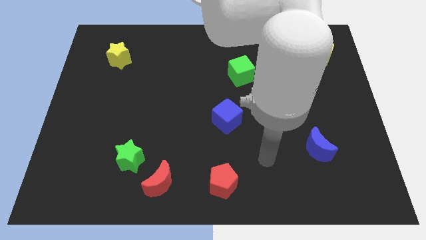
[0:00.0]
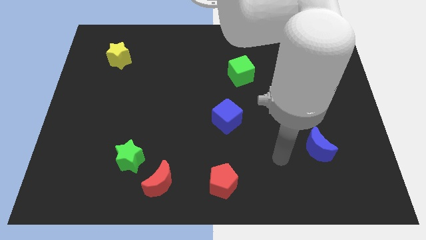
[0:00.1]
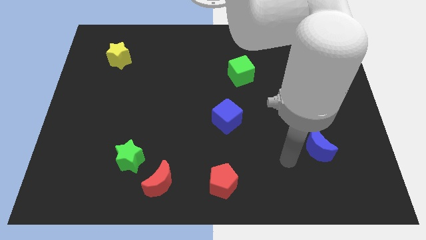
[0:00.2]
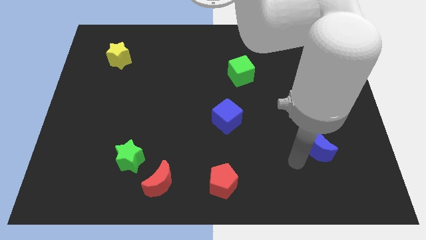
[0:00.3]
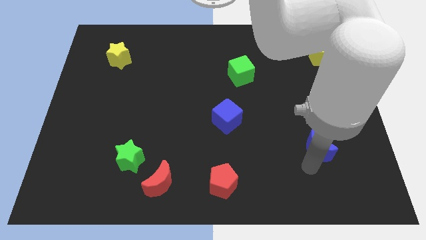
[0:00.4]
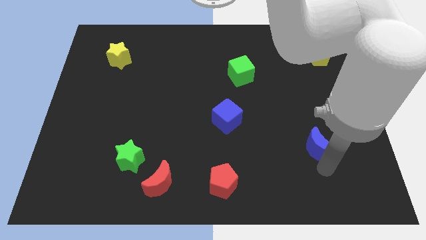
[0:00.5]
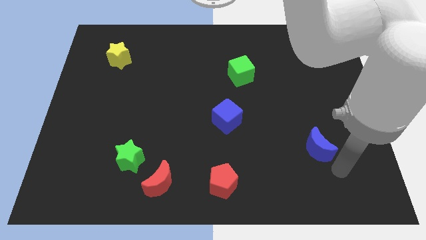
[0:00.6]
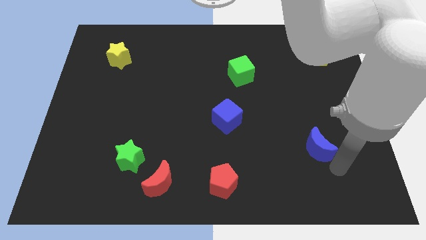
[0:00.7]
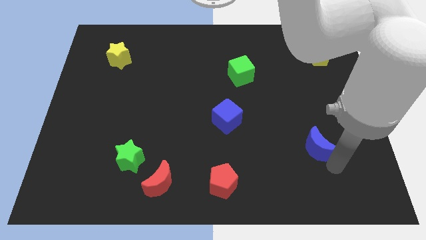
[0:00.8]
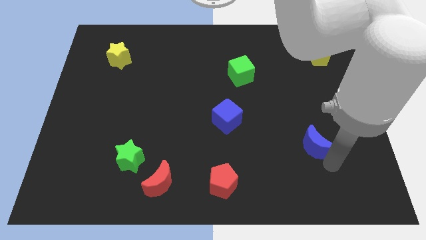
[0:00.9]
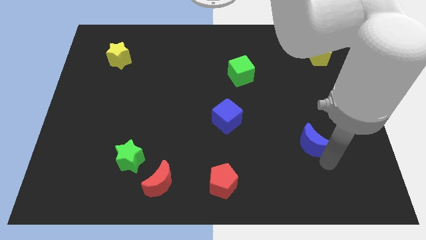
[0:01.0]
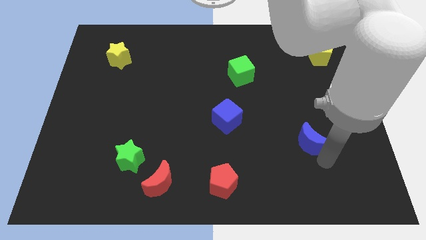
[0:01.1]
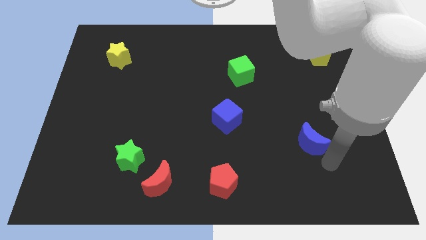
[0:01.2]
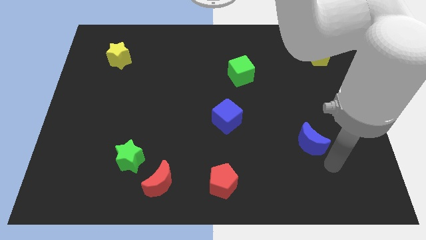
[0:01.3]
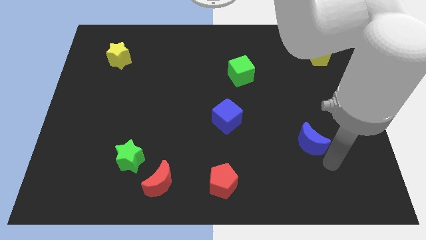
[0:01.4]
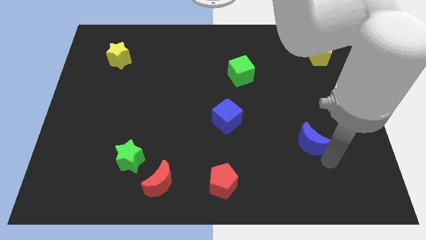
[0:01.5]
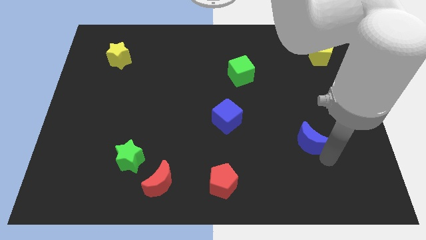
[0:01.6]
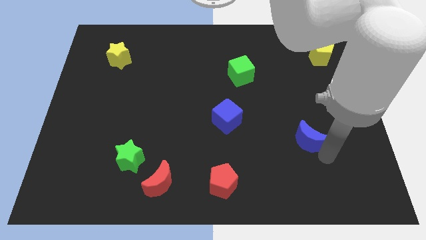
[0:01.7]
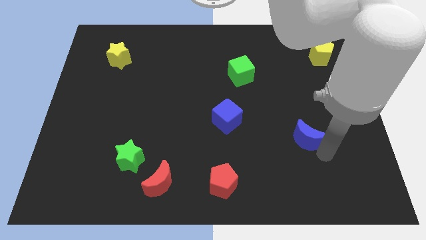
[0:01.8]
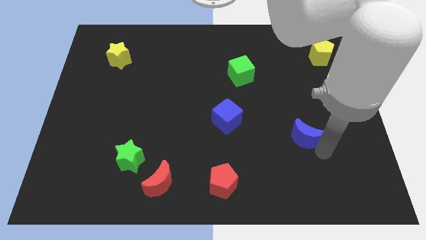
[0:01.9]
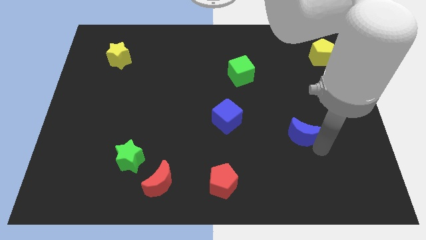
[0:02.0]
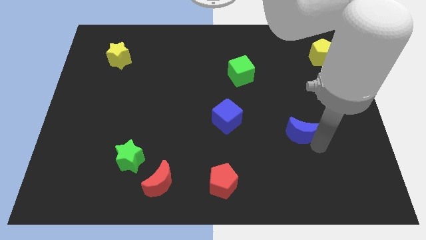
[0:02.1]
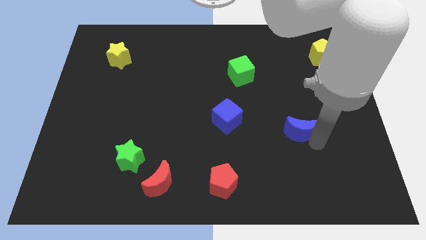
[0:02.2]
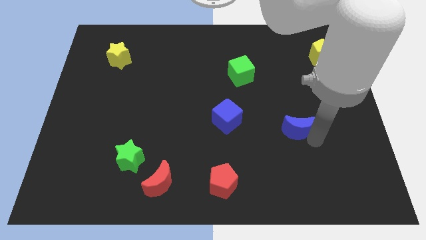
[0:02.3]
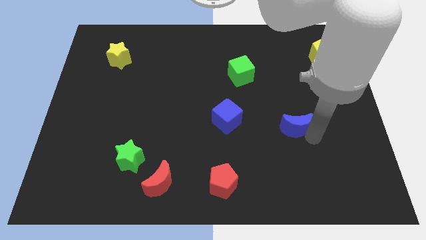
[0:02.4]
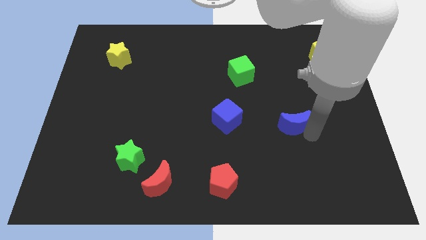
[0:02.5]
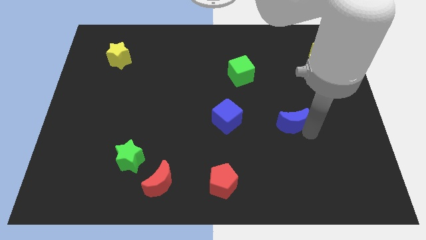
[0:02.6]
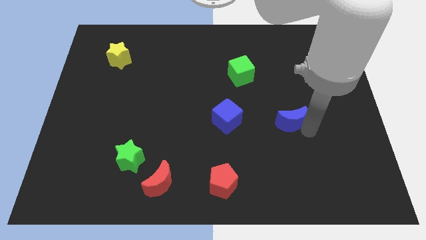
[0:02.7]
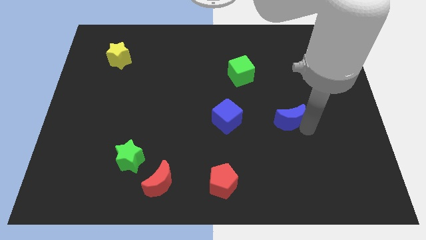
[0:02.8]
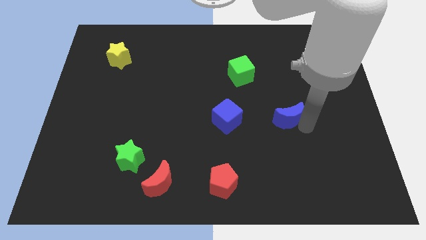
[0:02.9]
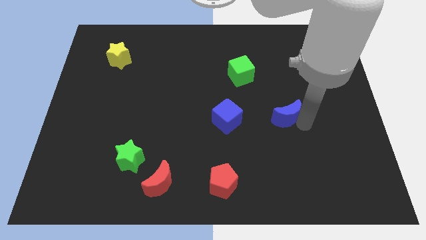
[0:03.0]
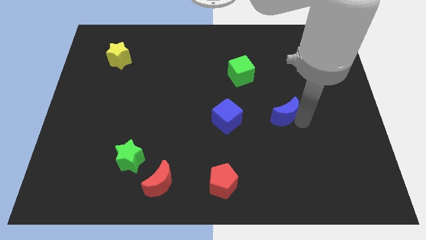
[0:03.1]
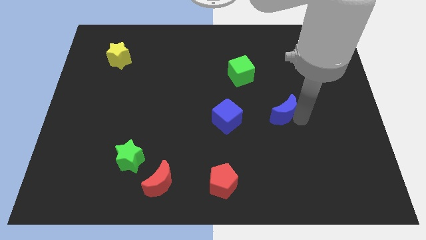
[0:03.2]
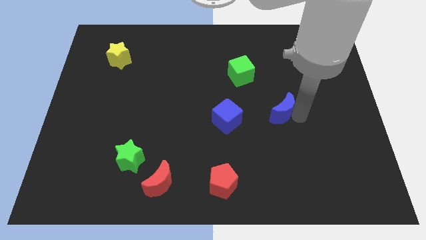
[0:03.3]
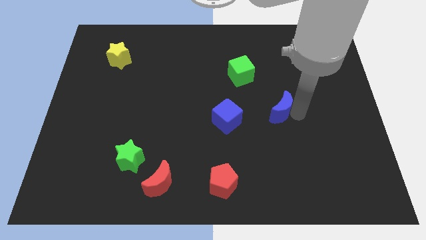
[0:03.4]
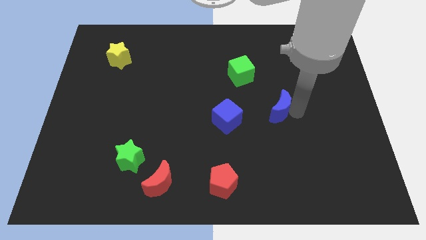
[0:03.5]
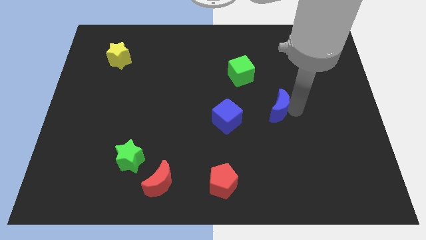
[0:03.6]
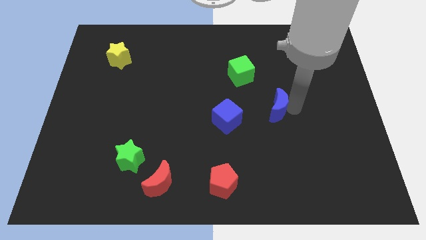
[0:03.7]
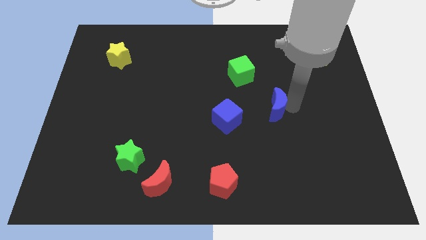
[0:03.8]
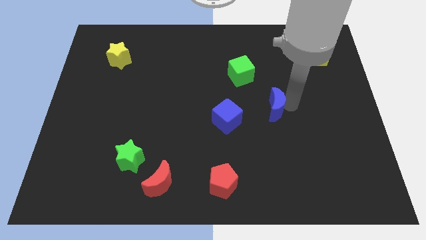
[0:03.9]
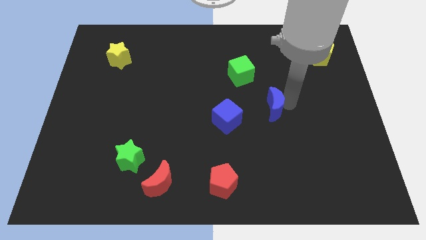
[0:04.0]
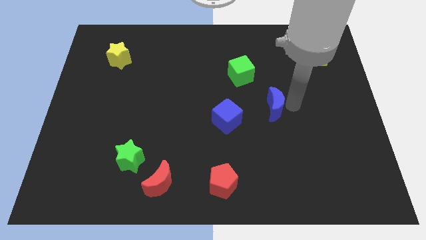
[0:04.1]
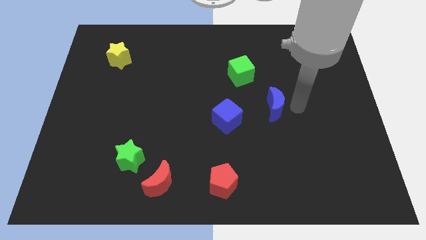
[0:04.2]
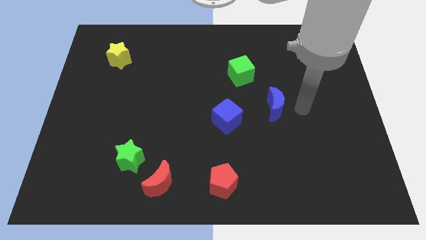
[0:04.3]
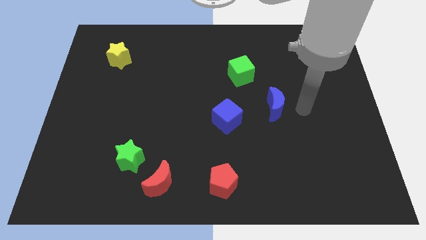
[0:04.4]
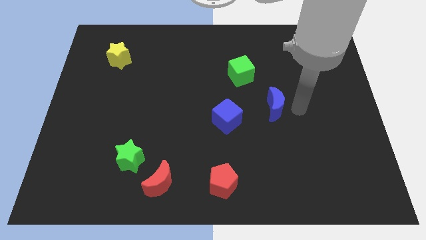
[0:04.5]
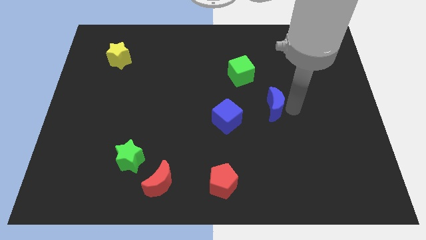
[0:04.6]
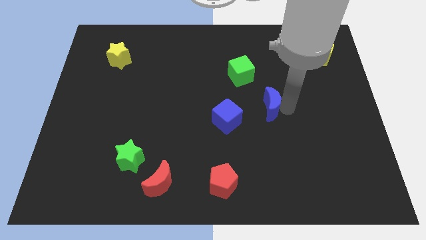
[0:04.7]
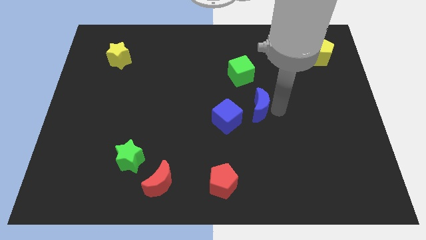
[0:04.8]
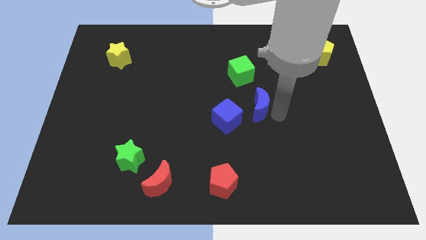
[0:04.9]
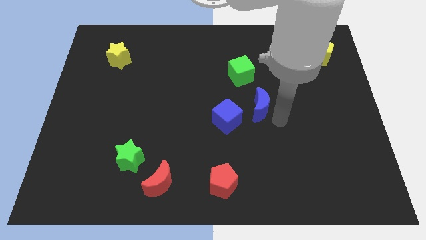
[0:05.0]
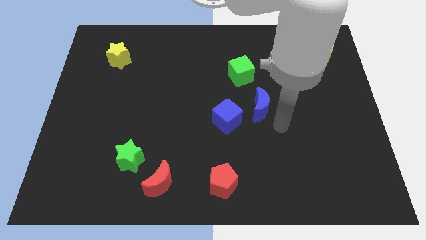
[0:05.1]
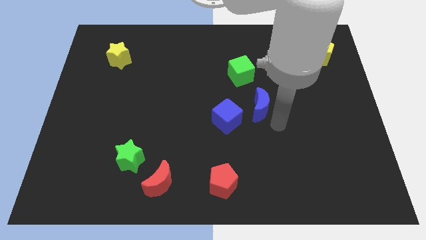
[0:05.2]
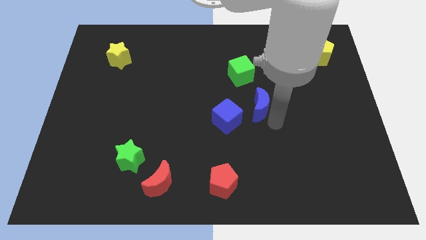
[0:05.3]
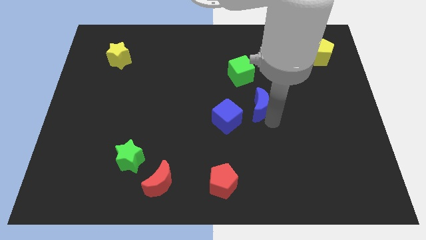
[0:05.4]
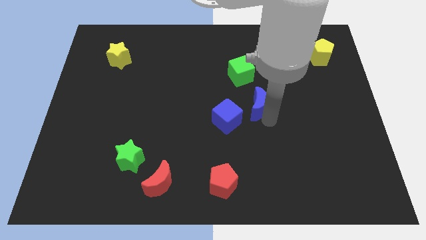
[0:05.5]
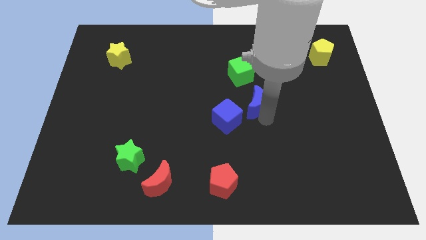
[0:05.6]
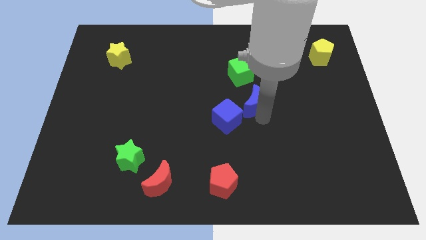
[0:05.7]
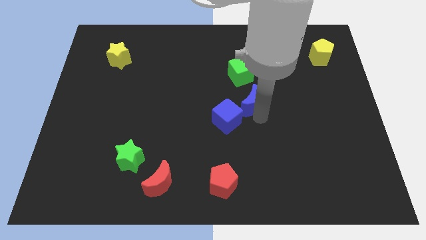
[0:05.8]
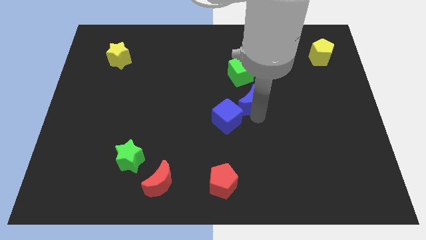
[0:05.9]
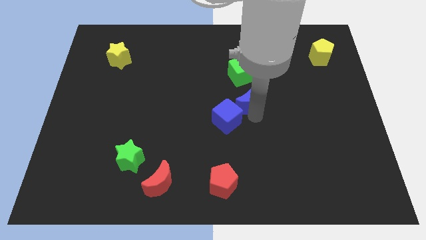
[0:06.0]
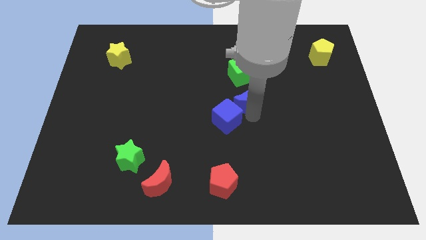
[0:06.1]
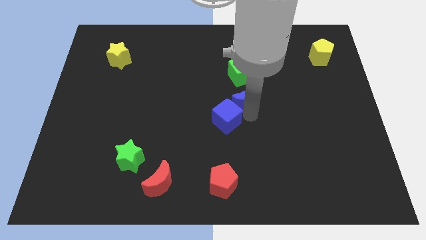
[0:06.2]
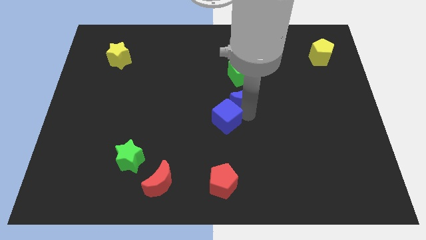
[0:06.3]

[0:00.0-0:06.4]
push the blue moon upwards and to the left diagonally

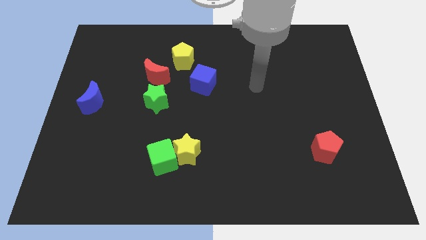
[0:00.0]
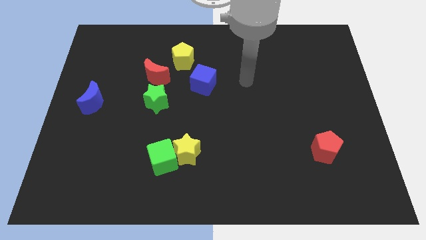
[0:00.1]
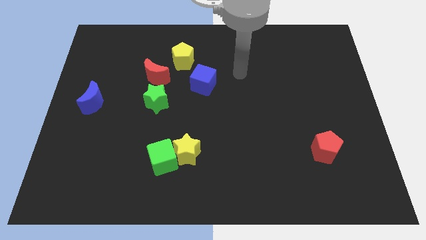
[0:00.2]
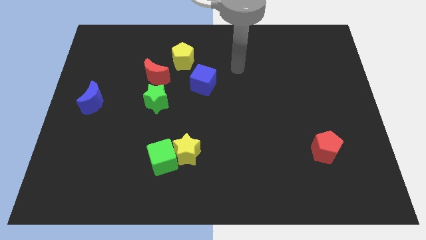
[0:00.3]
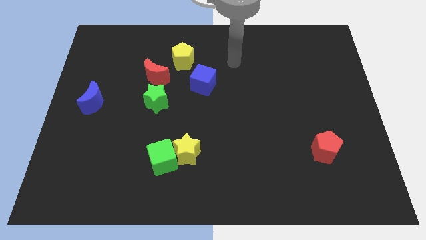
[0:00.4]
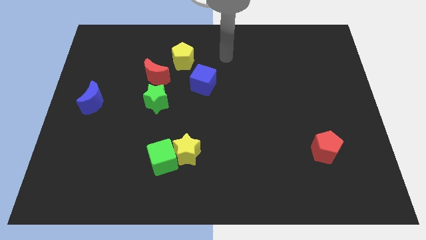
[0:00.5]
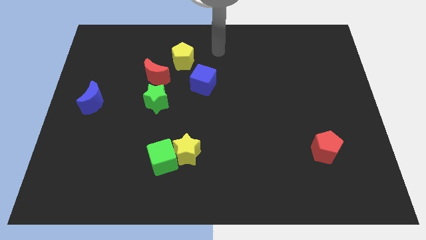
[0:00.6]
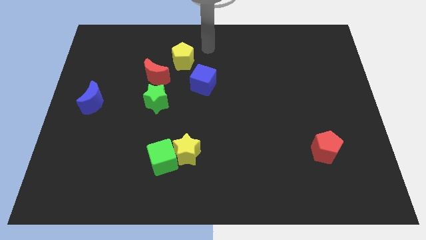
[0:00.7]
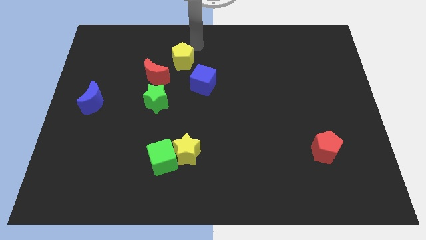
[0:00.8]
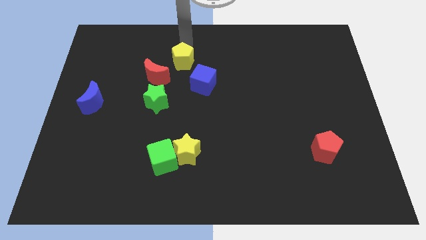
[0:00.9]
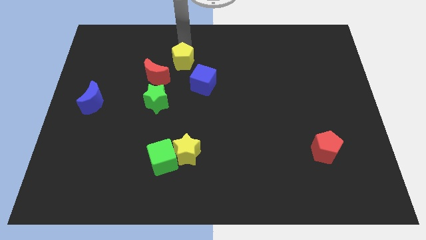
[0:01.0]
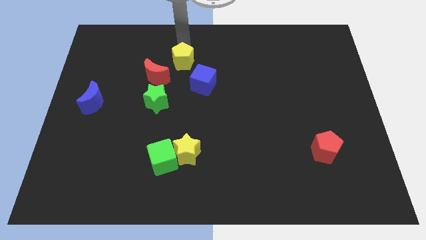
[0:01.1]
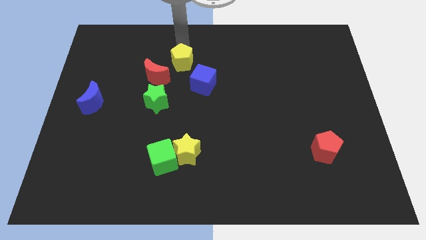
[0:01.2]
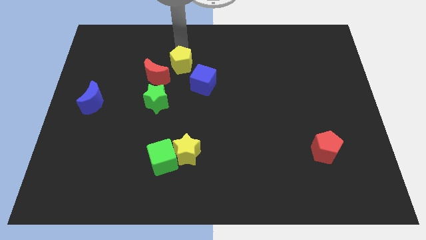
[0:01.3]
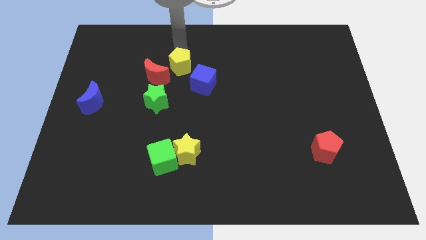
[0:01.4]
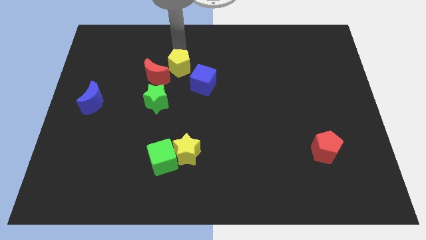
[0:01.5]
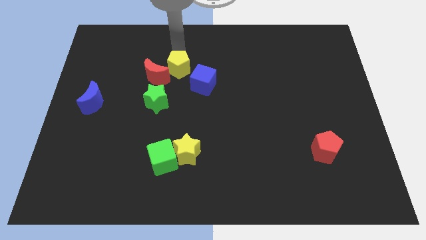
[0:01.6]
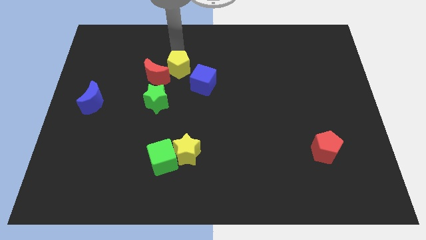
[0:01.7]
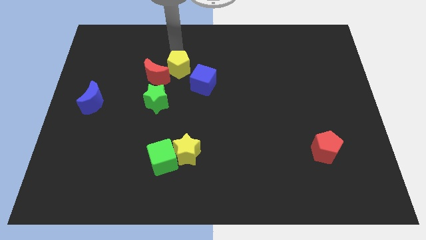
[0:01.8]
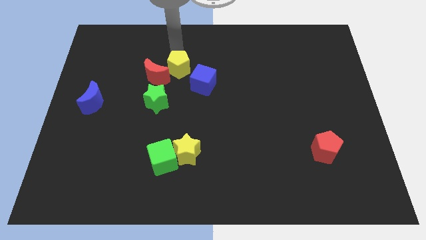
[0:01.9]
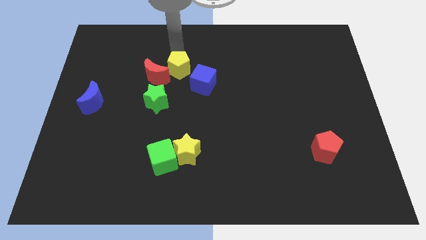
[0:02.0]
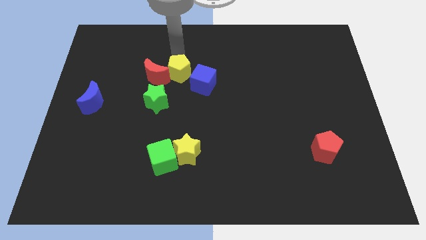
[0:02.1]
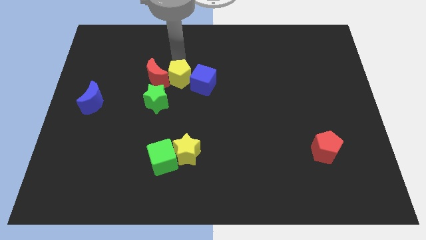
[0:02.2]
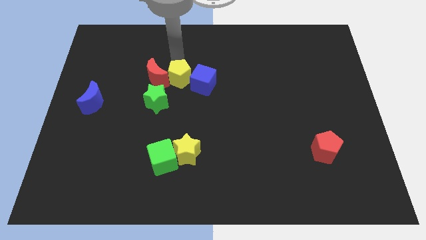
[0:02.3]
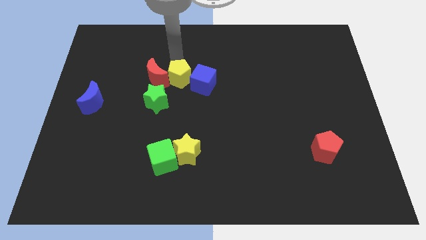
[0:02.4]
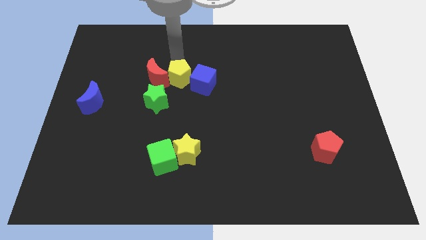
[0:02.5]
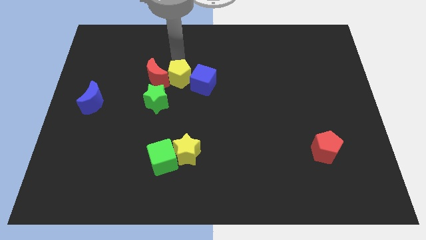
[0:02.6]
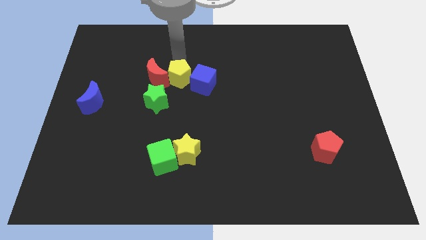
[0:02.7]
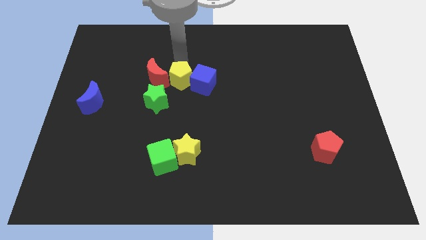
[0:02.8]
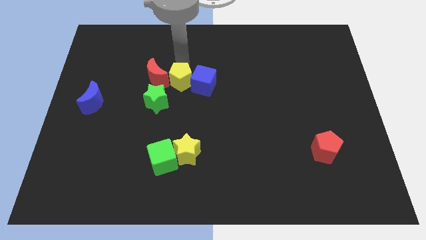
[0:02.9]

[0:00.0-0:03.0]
slide the yellow pentagon somewhat down
